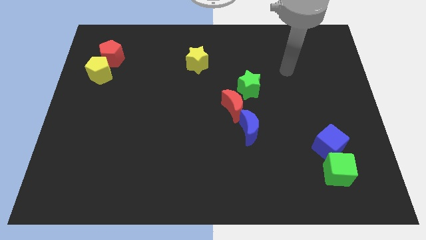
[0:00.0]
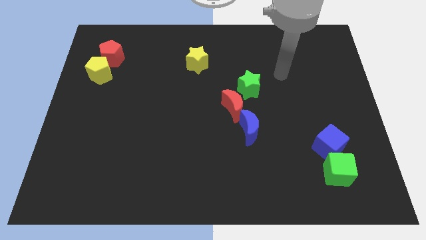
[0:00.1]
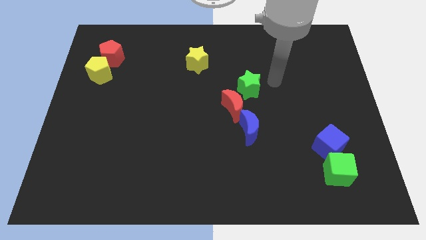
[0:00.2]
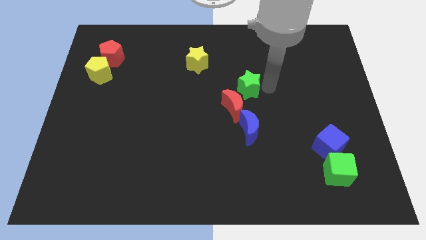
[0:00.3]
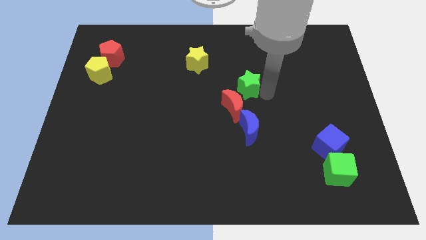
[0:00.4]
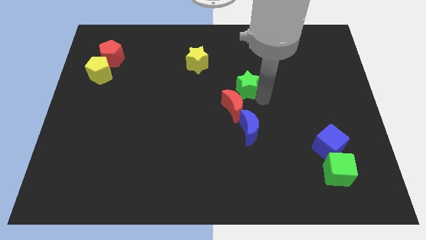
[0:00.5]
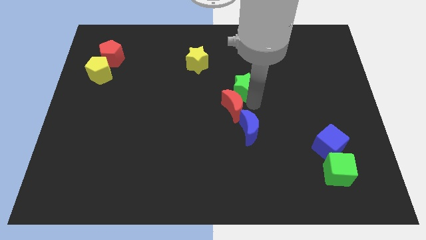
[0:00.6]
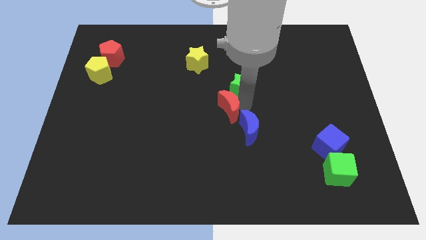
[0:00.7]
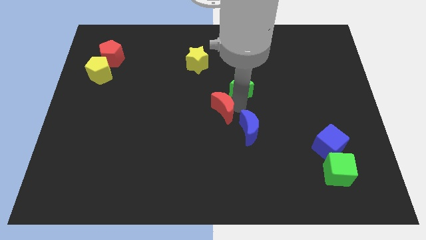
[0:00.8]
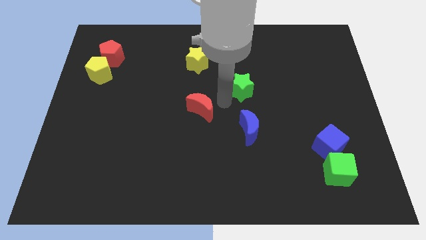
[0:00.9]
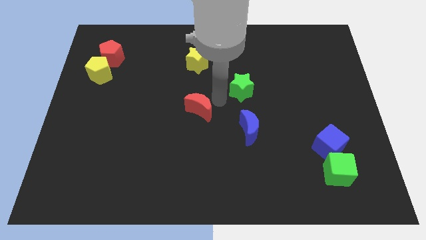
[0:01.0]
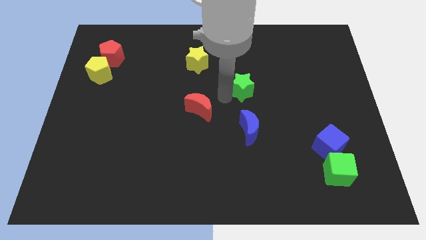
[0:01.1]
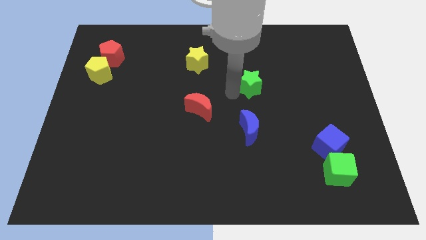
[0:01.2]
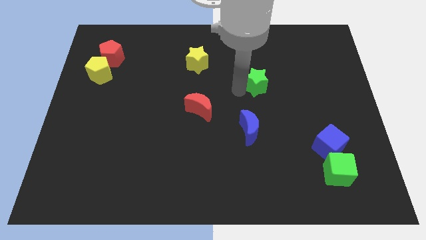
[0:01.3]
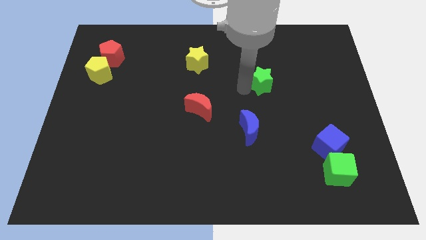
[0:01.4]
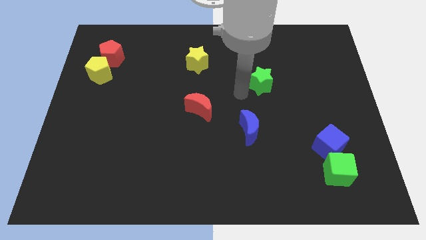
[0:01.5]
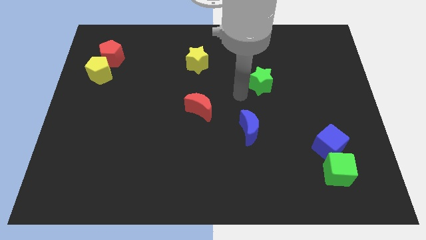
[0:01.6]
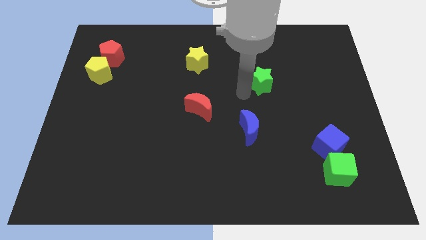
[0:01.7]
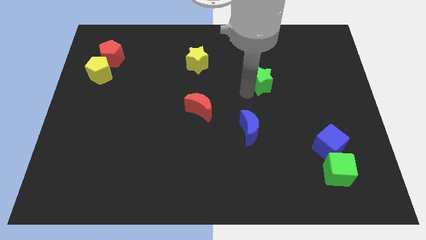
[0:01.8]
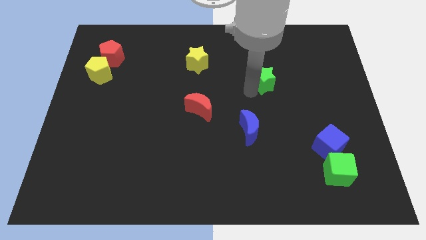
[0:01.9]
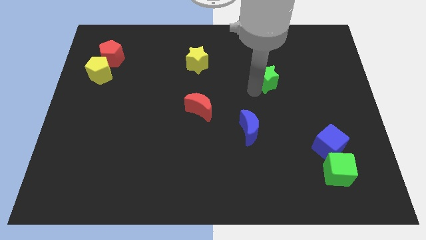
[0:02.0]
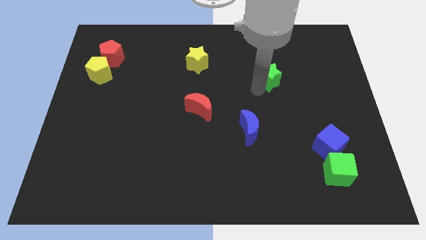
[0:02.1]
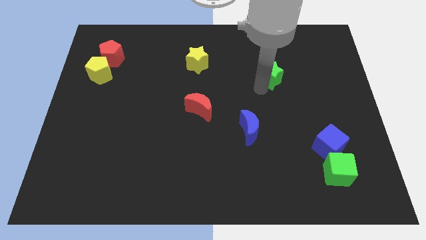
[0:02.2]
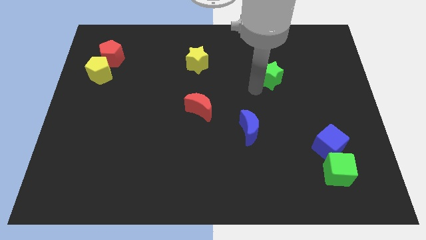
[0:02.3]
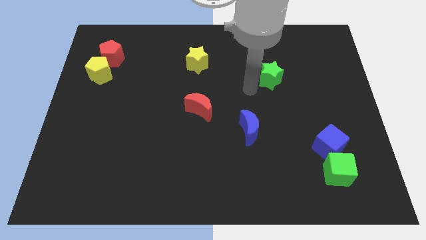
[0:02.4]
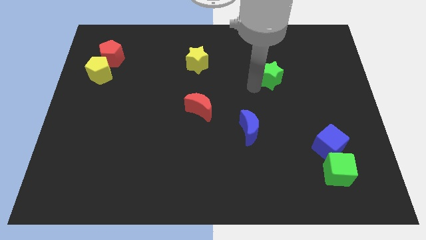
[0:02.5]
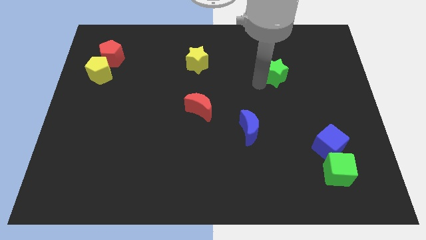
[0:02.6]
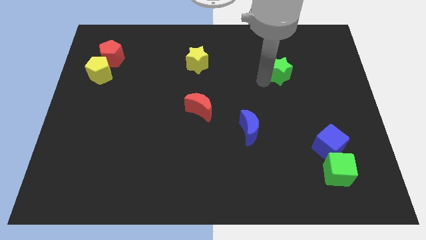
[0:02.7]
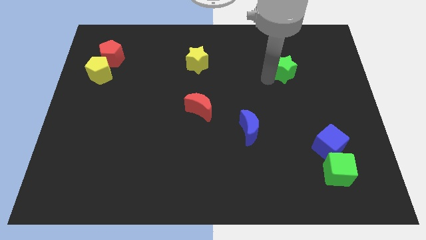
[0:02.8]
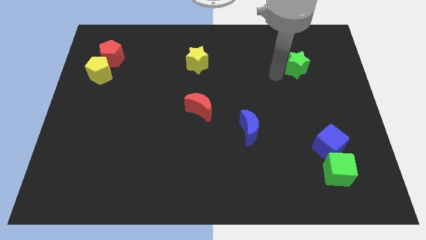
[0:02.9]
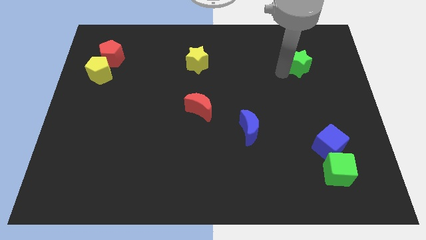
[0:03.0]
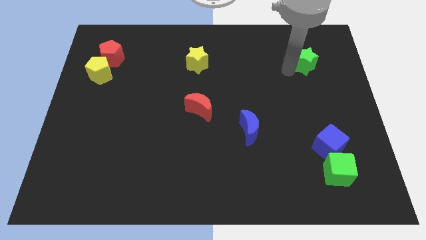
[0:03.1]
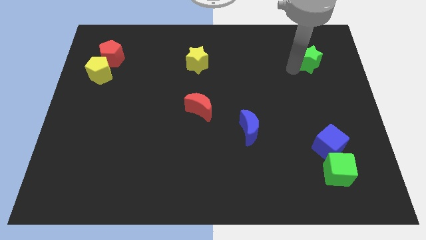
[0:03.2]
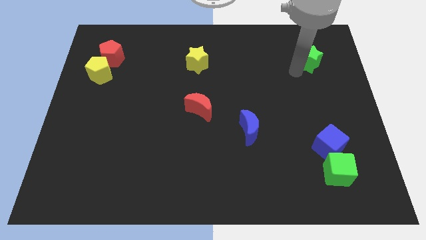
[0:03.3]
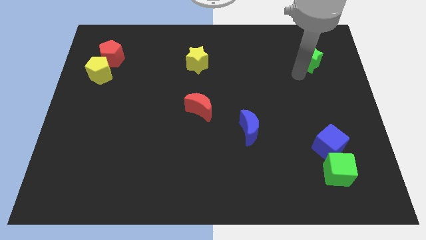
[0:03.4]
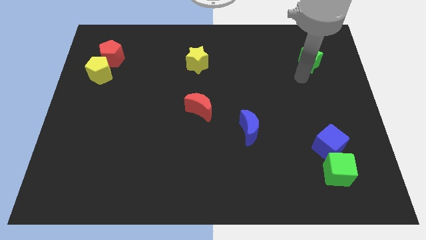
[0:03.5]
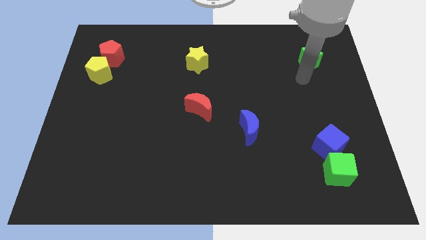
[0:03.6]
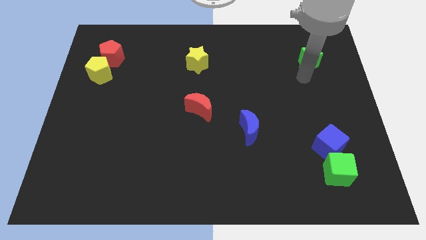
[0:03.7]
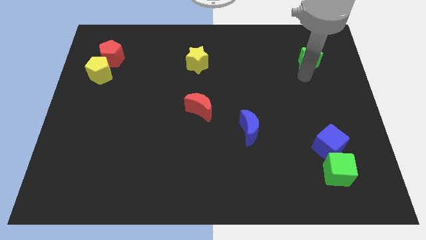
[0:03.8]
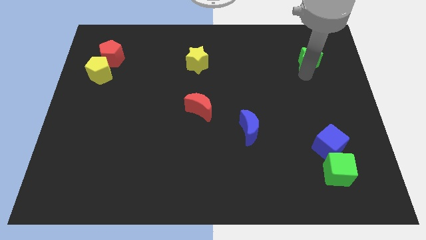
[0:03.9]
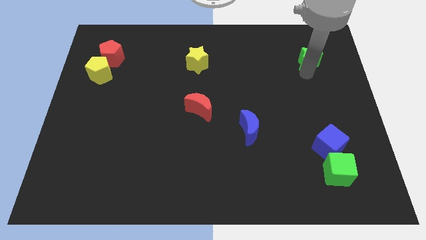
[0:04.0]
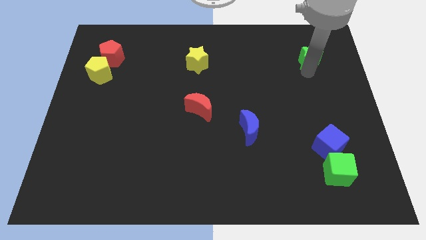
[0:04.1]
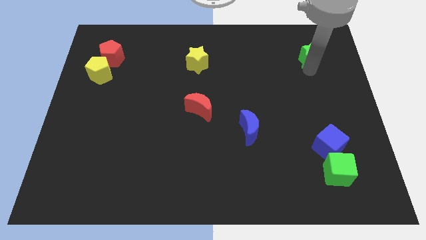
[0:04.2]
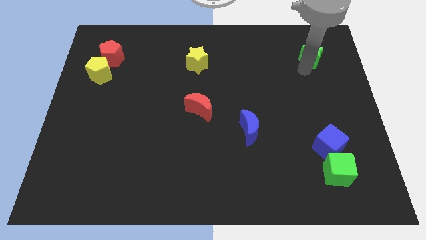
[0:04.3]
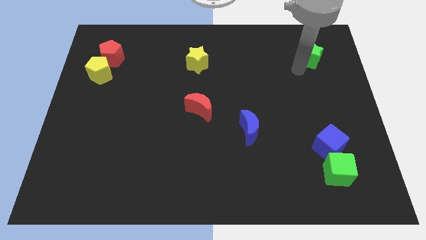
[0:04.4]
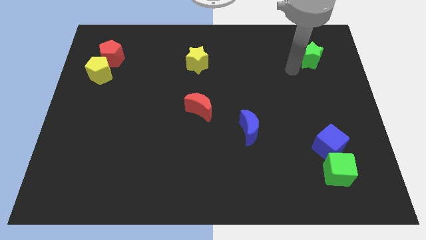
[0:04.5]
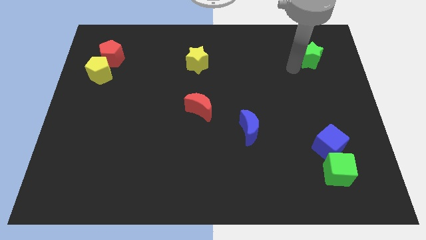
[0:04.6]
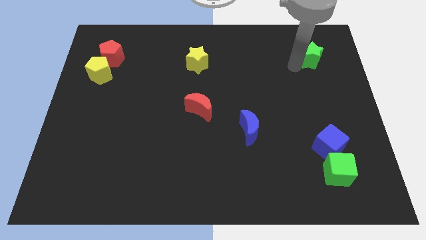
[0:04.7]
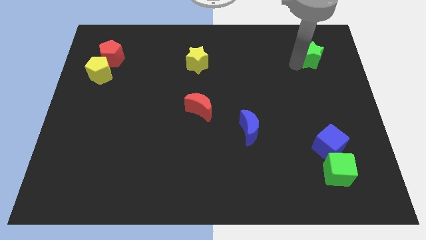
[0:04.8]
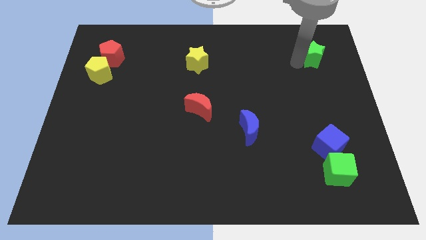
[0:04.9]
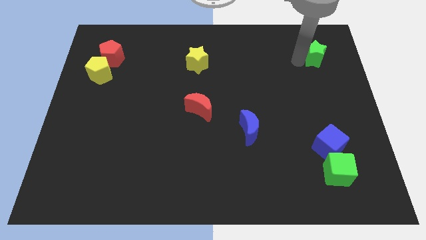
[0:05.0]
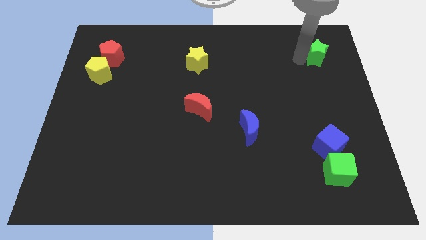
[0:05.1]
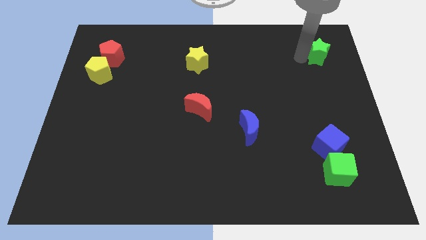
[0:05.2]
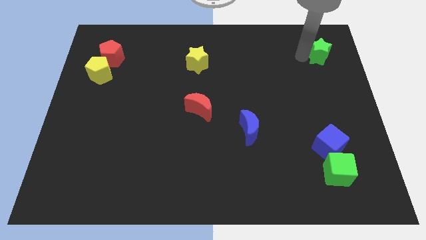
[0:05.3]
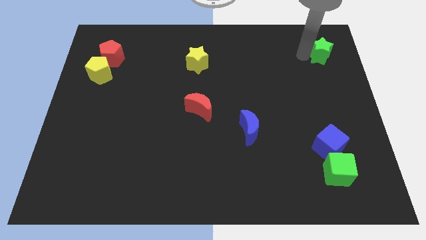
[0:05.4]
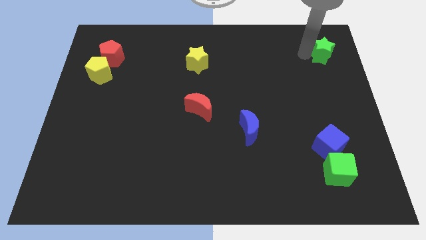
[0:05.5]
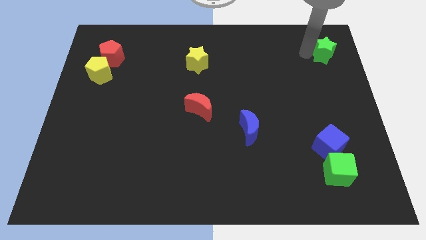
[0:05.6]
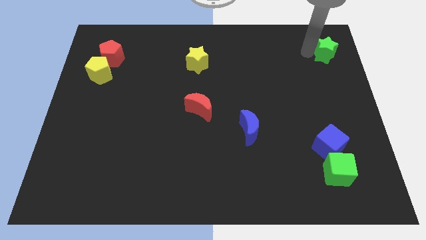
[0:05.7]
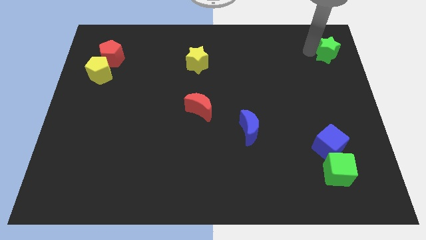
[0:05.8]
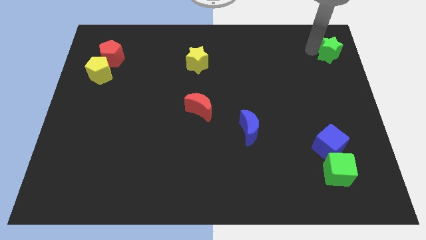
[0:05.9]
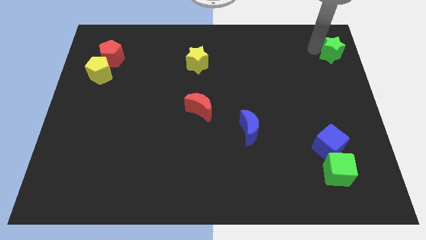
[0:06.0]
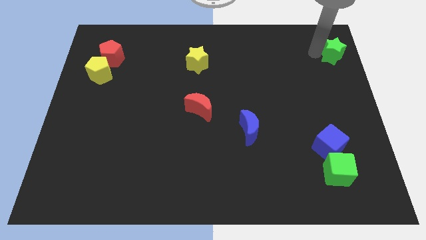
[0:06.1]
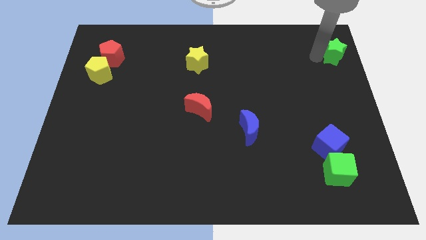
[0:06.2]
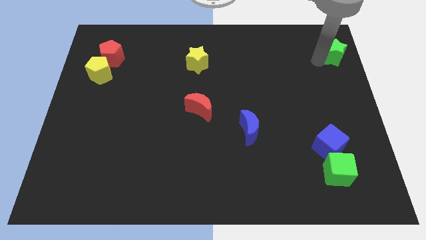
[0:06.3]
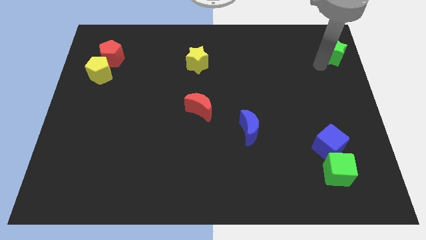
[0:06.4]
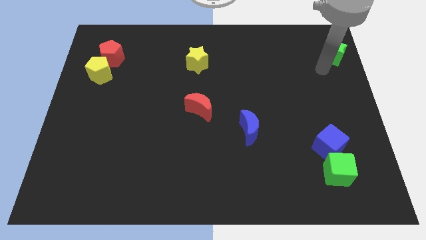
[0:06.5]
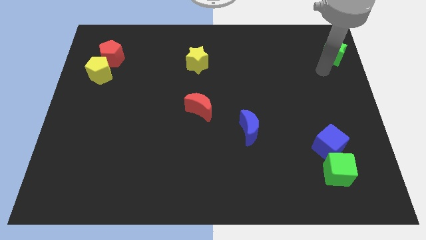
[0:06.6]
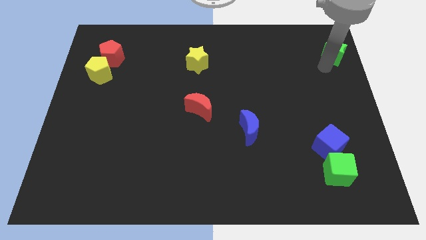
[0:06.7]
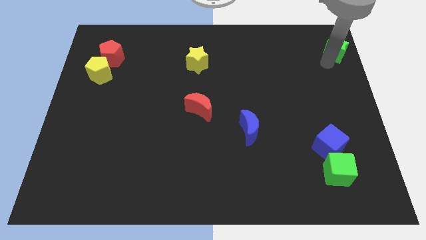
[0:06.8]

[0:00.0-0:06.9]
slide the green star to the upper right corner

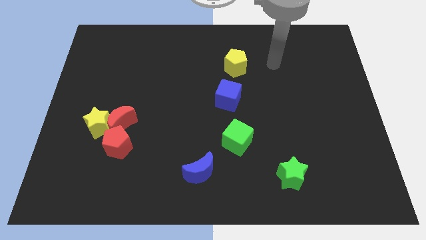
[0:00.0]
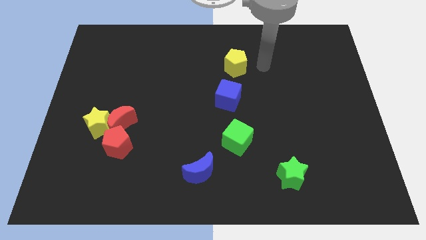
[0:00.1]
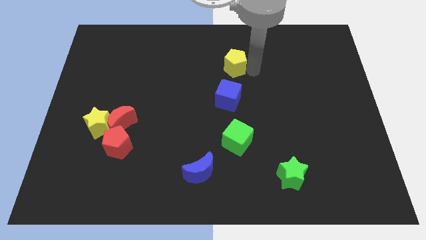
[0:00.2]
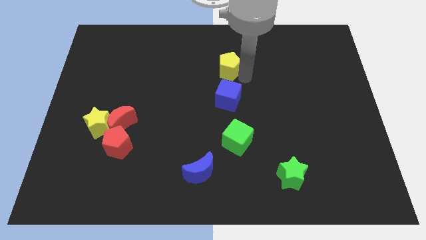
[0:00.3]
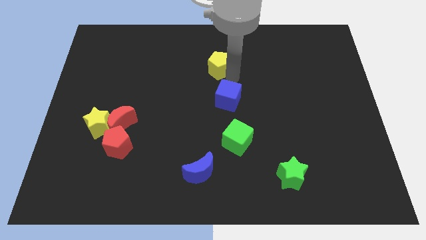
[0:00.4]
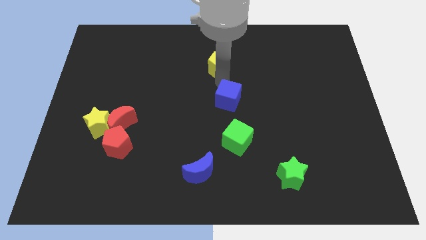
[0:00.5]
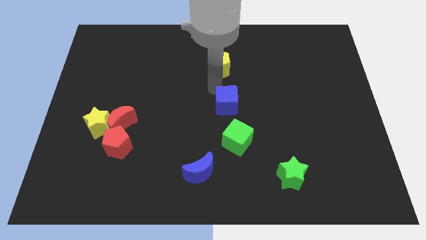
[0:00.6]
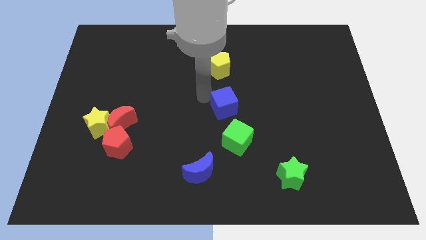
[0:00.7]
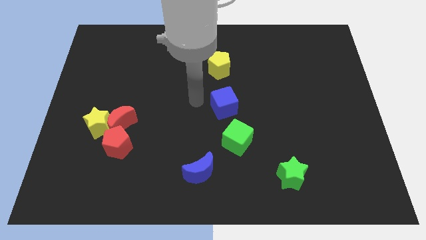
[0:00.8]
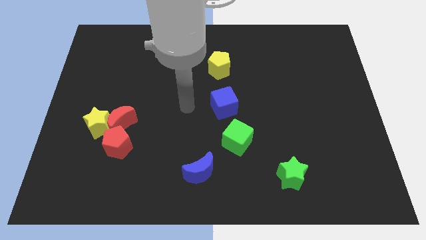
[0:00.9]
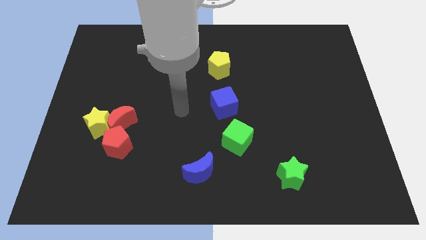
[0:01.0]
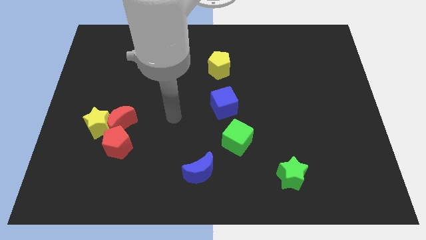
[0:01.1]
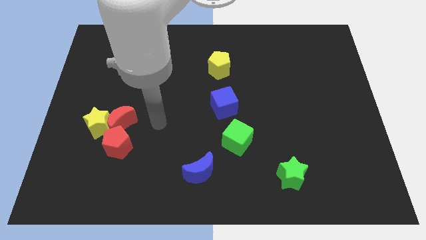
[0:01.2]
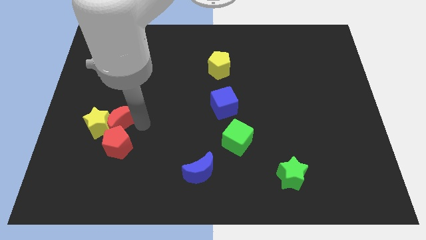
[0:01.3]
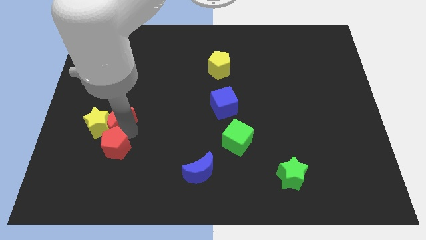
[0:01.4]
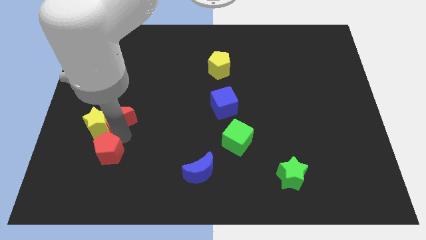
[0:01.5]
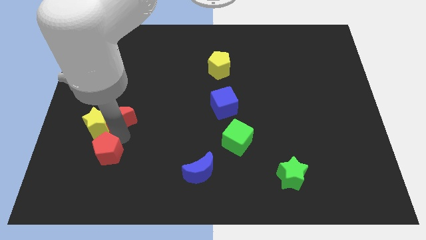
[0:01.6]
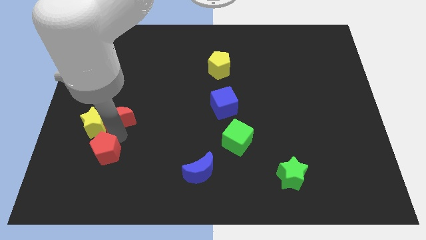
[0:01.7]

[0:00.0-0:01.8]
put the yellow star to the left side
